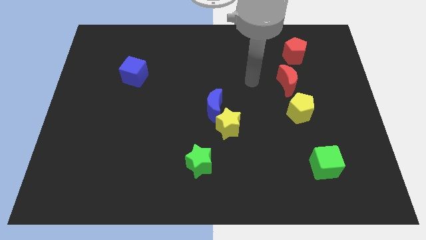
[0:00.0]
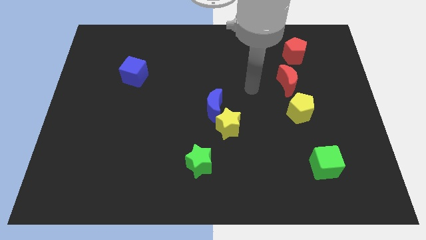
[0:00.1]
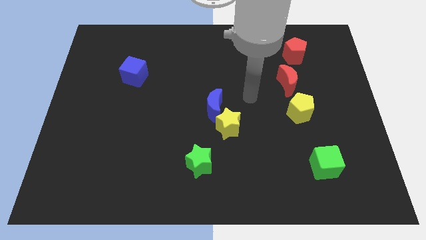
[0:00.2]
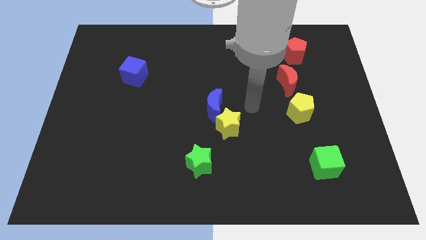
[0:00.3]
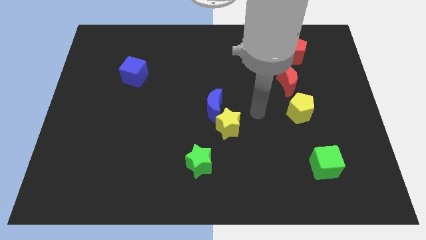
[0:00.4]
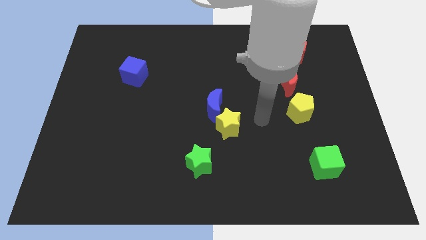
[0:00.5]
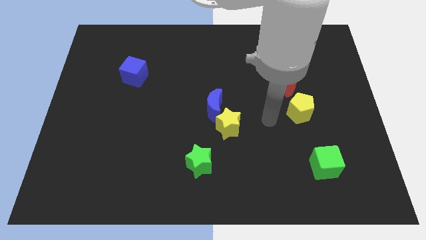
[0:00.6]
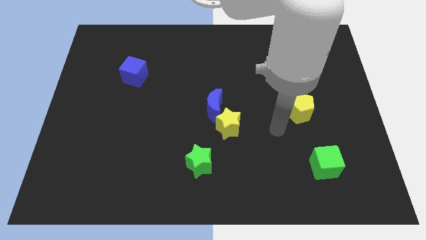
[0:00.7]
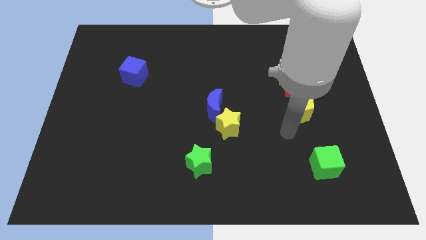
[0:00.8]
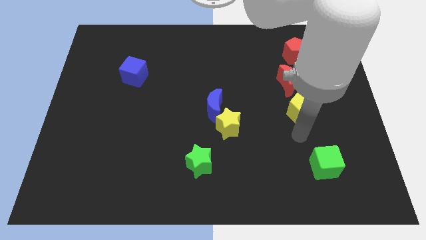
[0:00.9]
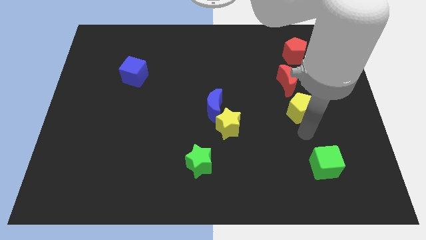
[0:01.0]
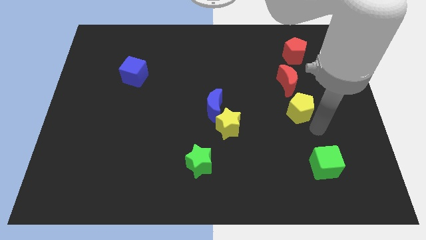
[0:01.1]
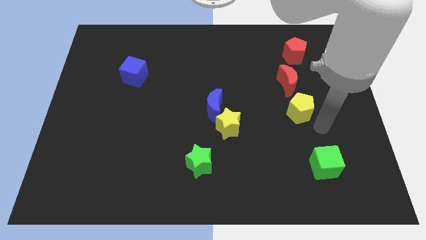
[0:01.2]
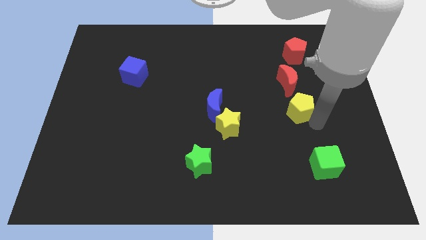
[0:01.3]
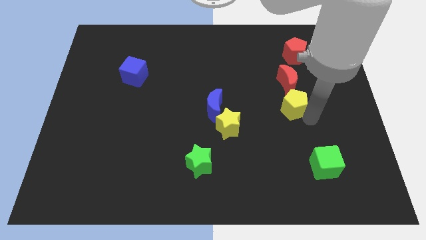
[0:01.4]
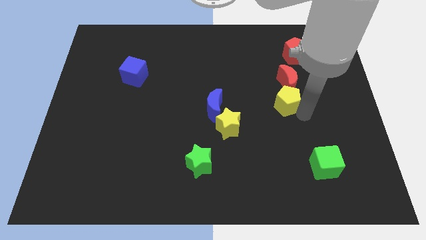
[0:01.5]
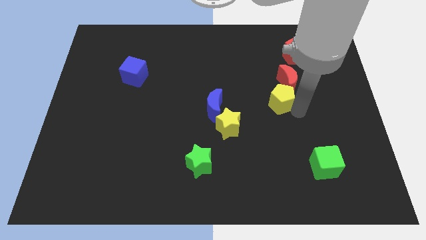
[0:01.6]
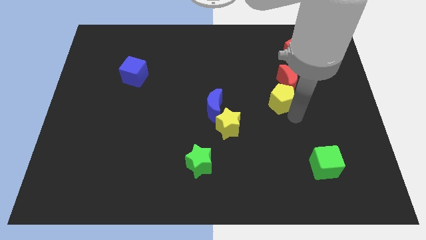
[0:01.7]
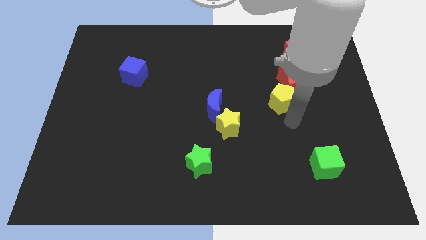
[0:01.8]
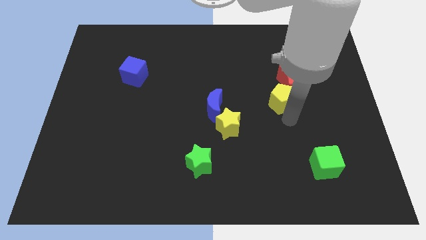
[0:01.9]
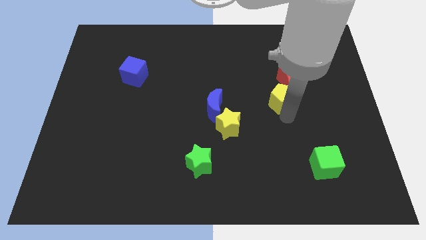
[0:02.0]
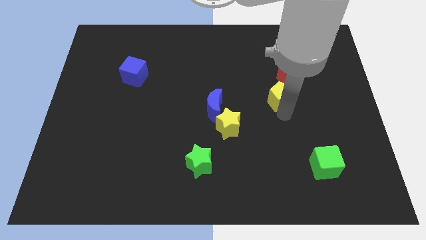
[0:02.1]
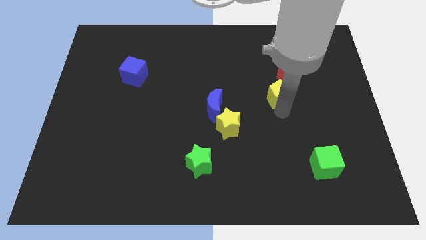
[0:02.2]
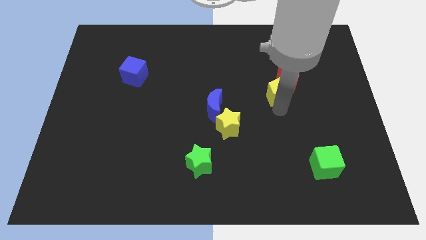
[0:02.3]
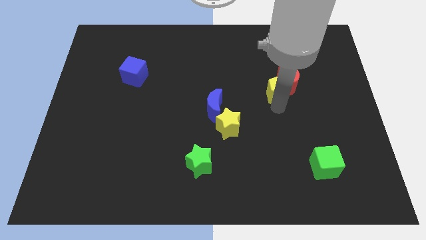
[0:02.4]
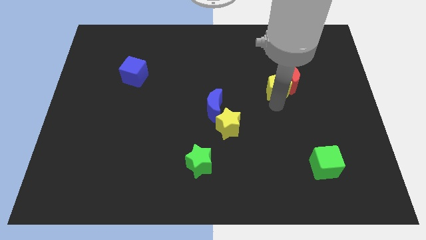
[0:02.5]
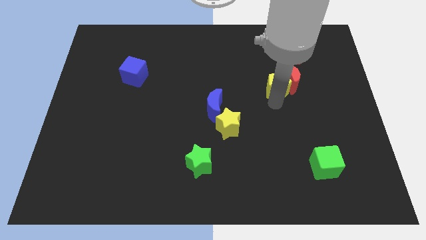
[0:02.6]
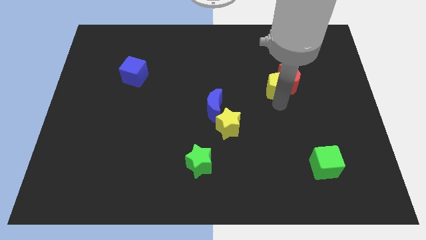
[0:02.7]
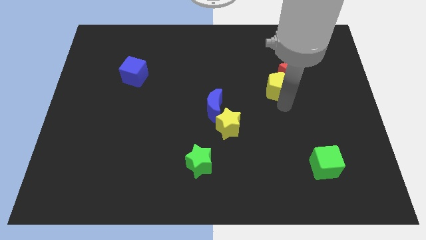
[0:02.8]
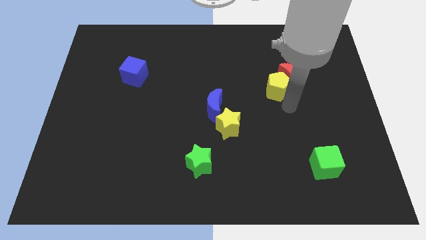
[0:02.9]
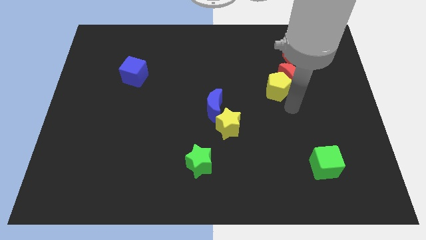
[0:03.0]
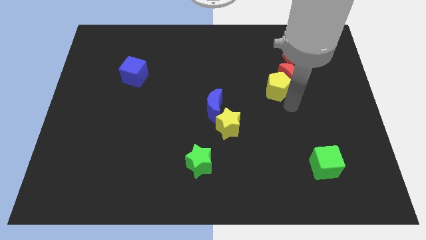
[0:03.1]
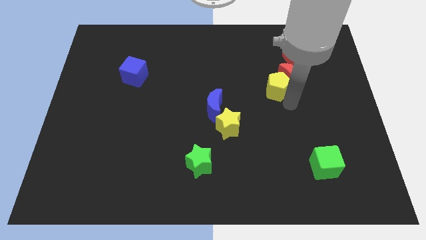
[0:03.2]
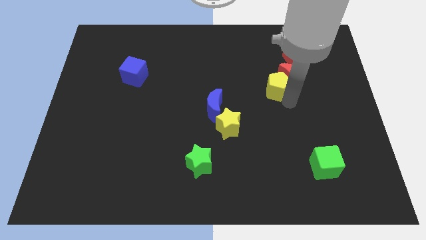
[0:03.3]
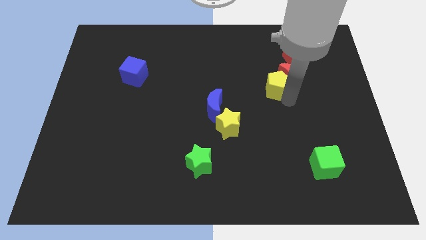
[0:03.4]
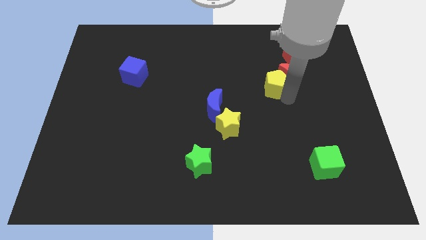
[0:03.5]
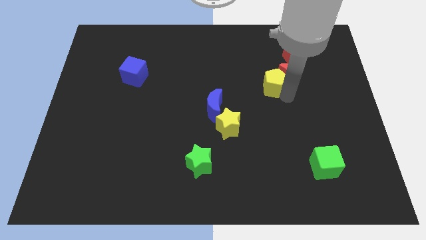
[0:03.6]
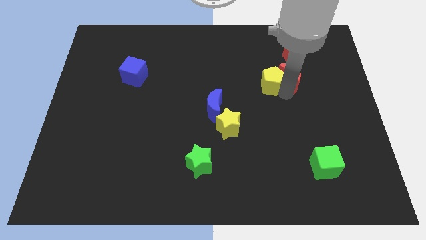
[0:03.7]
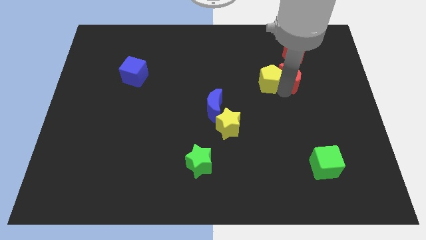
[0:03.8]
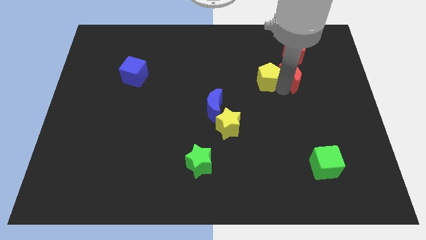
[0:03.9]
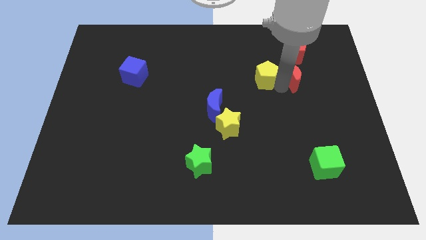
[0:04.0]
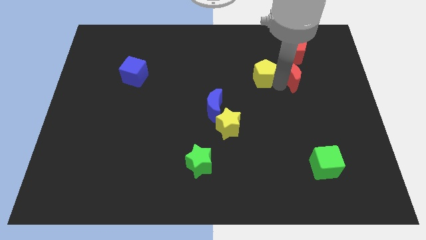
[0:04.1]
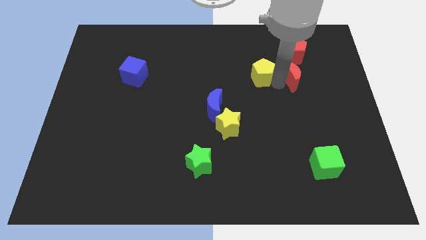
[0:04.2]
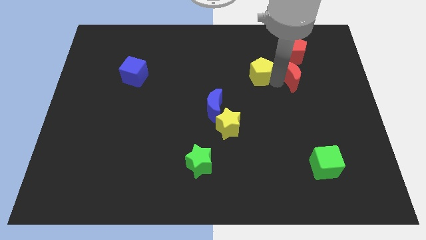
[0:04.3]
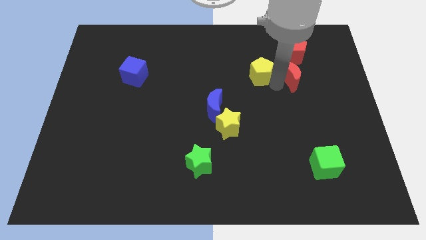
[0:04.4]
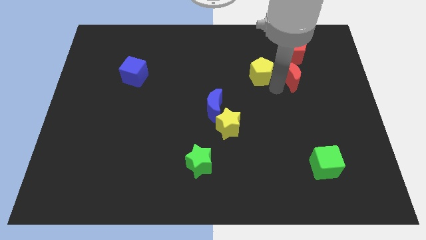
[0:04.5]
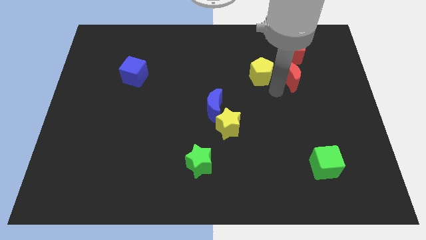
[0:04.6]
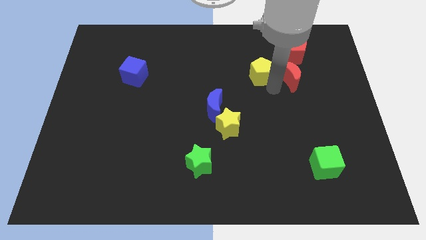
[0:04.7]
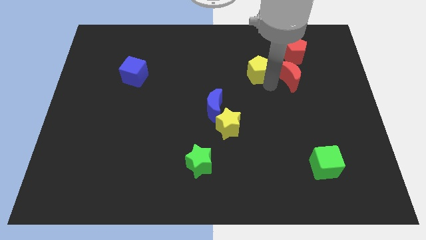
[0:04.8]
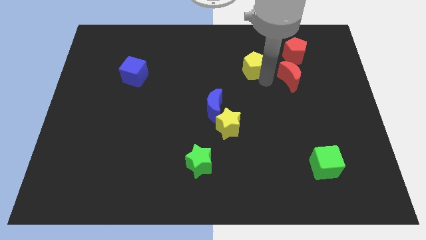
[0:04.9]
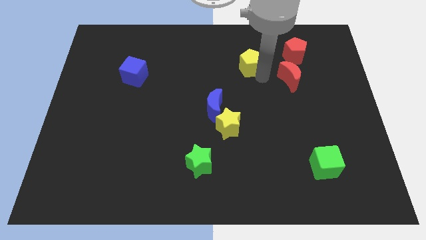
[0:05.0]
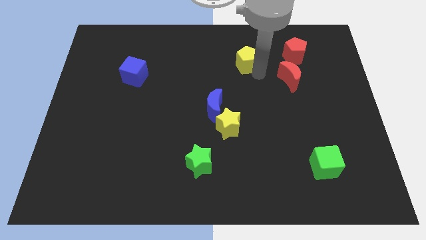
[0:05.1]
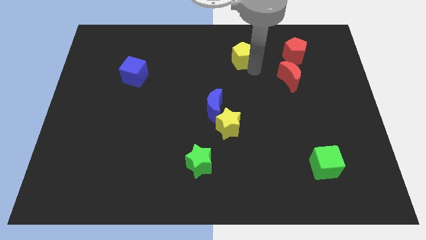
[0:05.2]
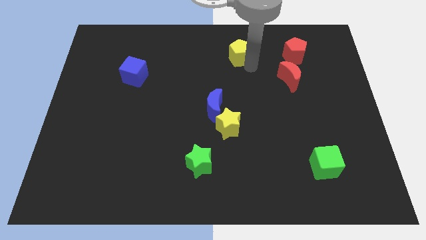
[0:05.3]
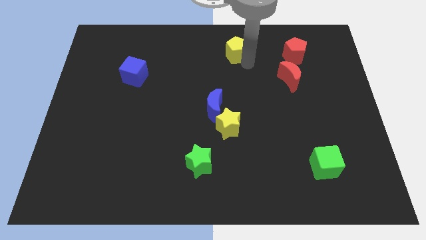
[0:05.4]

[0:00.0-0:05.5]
move the yellow pentagon to the top side

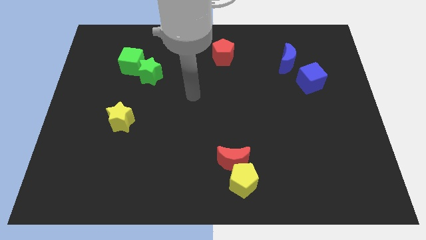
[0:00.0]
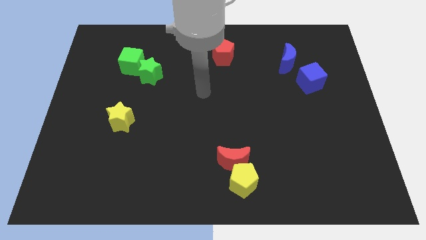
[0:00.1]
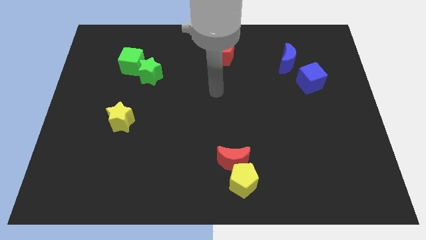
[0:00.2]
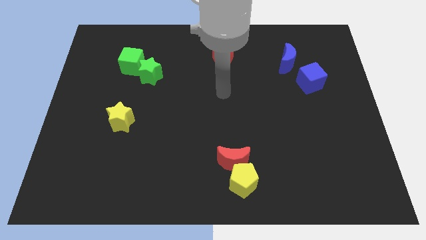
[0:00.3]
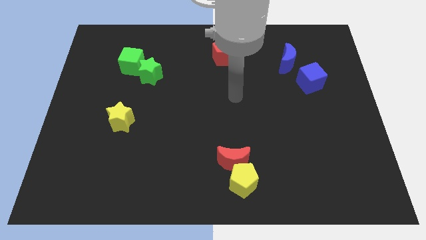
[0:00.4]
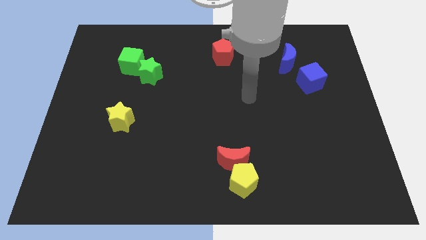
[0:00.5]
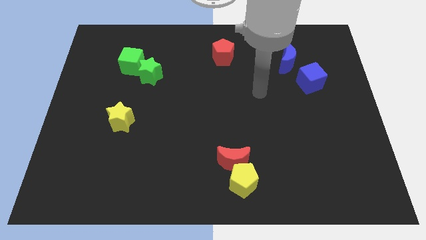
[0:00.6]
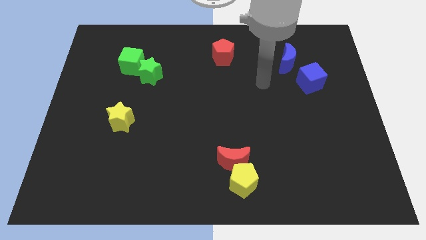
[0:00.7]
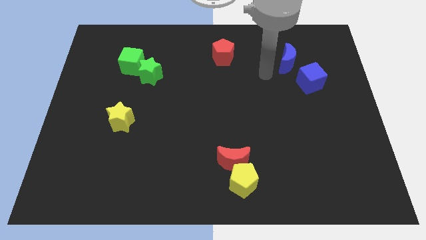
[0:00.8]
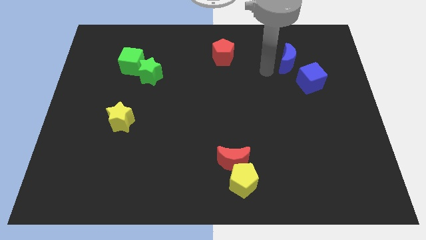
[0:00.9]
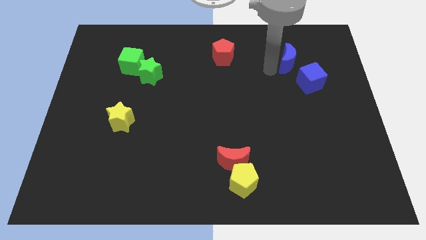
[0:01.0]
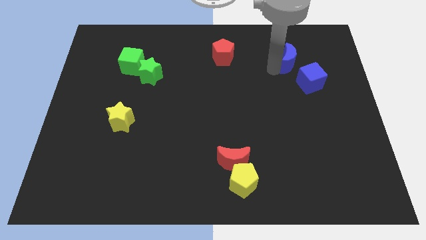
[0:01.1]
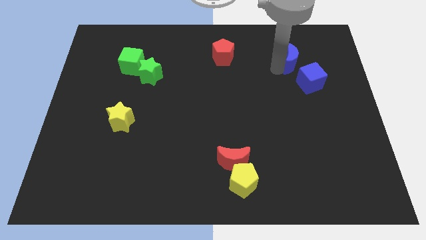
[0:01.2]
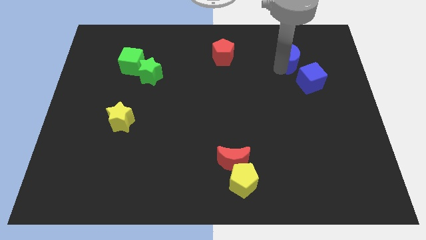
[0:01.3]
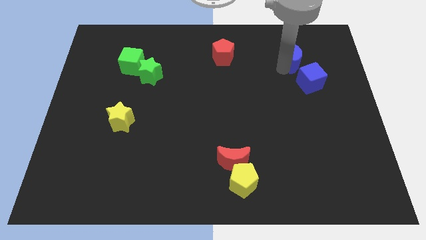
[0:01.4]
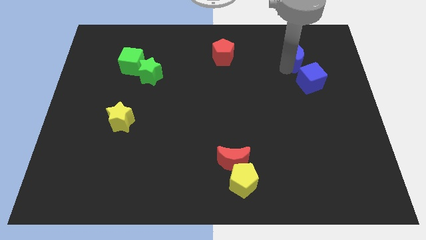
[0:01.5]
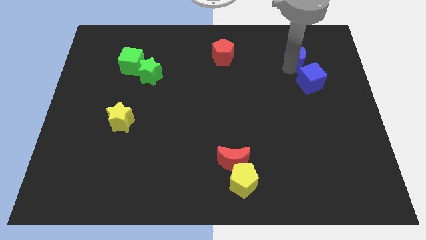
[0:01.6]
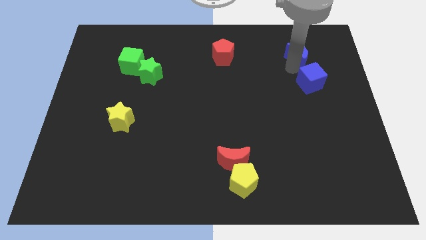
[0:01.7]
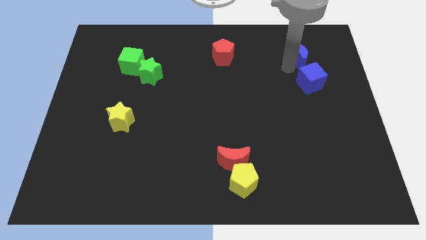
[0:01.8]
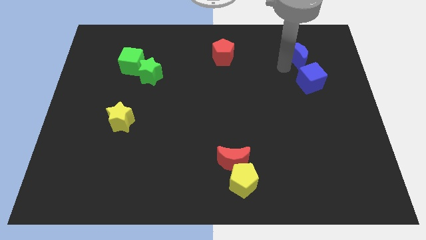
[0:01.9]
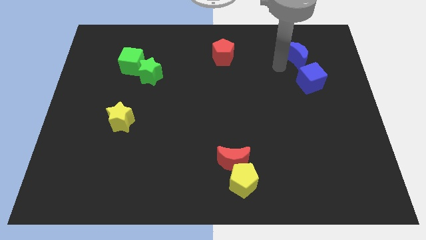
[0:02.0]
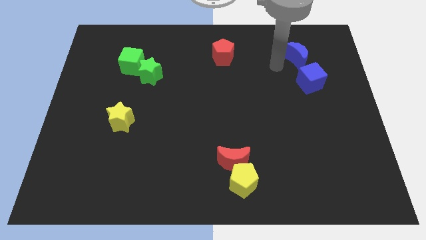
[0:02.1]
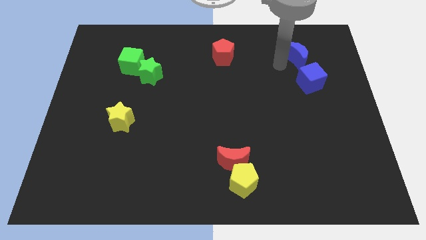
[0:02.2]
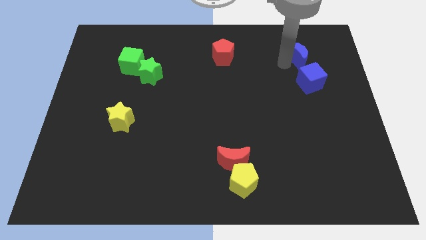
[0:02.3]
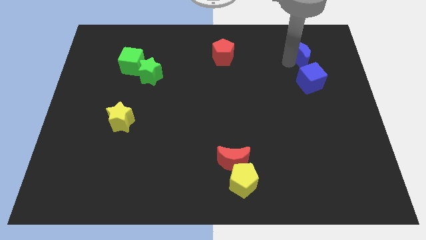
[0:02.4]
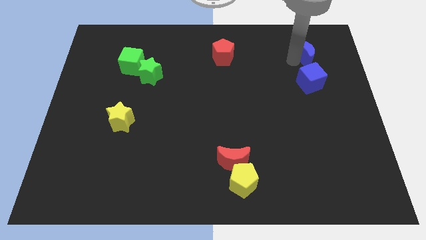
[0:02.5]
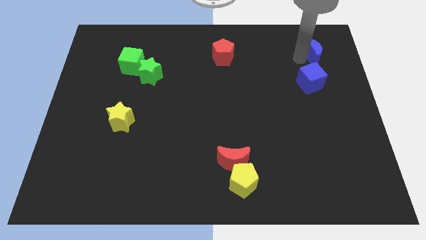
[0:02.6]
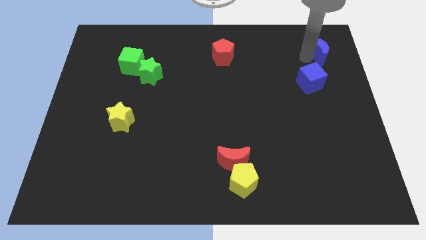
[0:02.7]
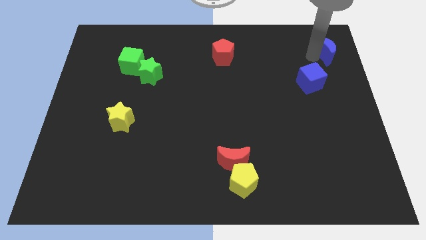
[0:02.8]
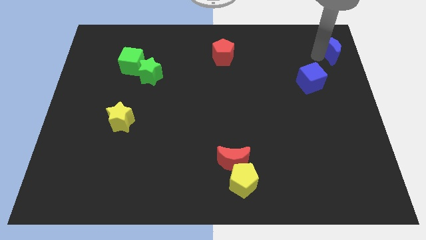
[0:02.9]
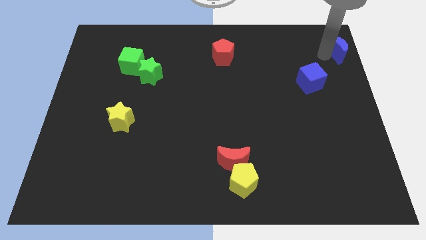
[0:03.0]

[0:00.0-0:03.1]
push the blue moon to the top right of the board
